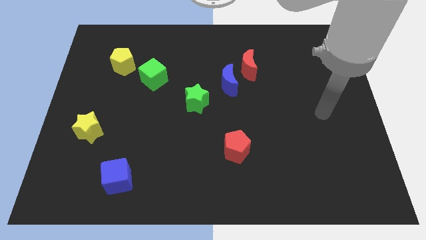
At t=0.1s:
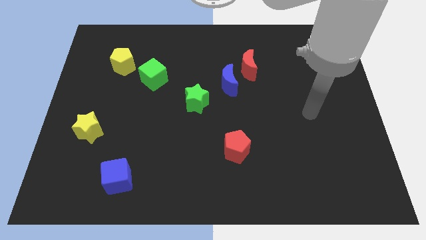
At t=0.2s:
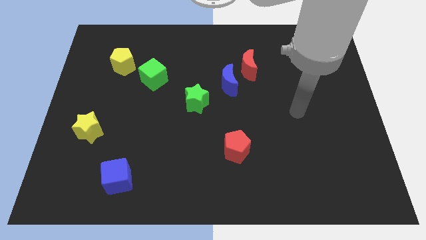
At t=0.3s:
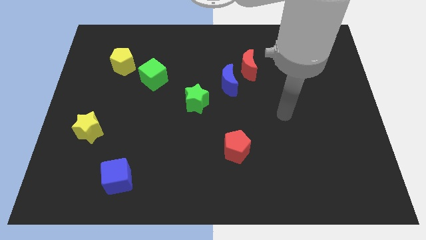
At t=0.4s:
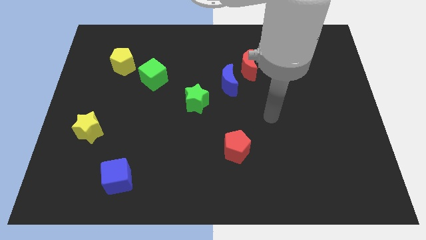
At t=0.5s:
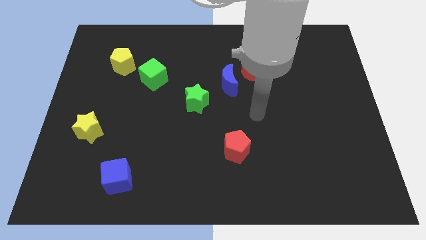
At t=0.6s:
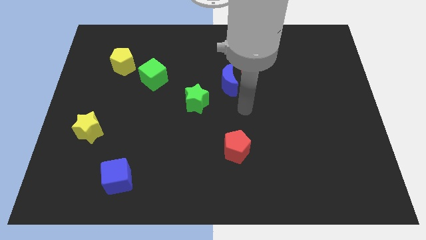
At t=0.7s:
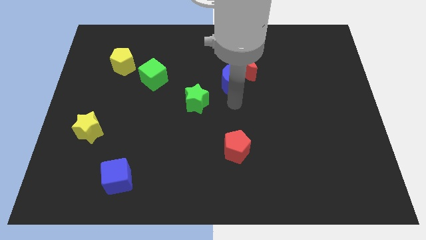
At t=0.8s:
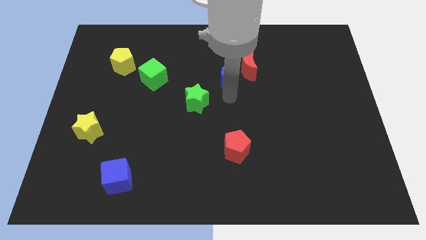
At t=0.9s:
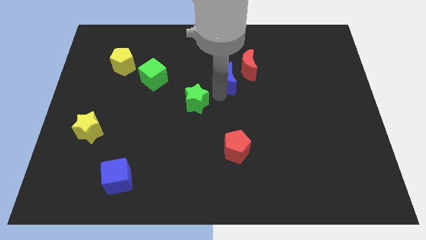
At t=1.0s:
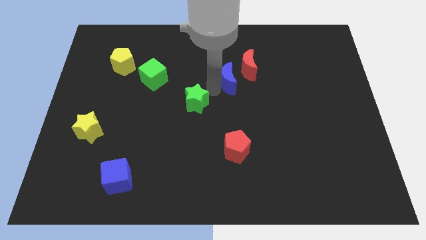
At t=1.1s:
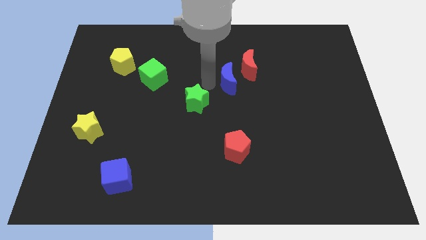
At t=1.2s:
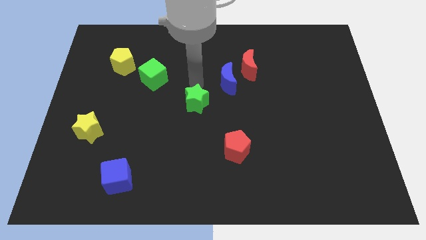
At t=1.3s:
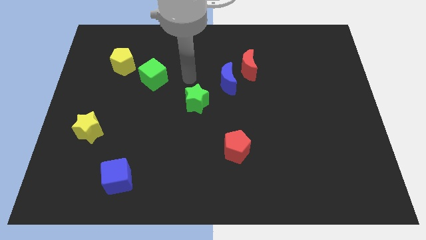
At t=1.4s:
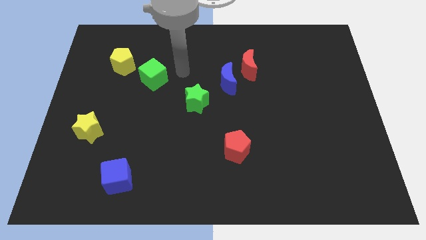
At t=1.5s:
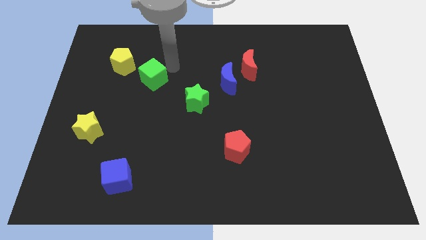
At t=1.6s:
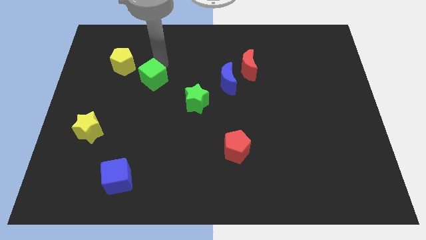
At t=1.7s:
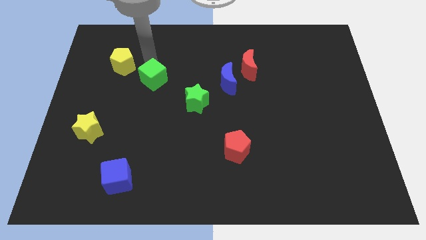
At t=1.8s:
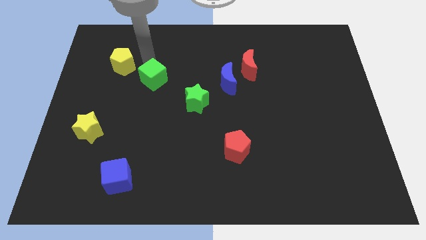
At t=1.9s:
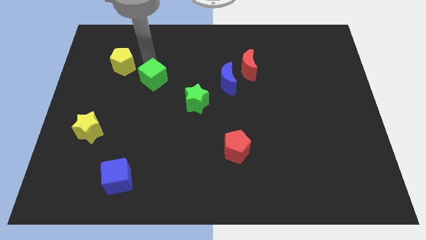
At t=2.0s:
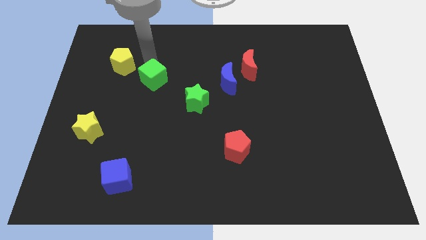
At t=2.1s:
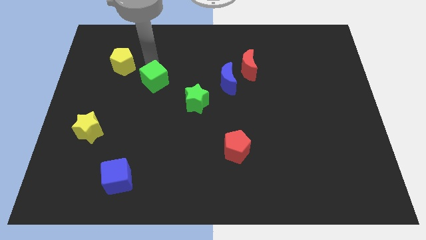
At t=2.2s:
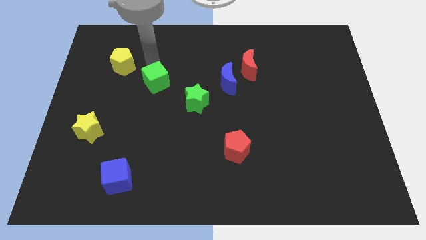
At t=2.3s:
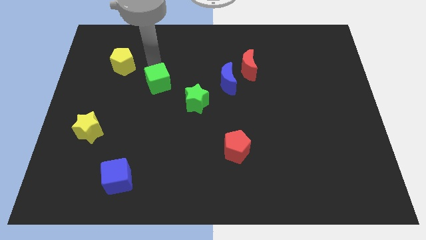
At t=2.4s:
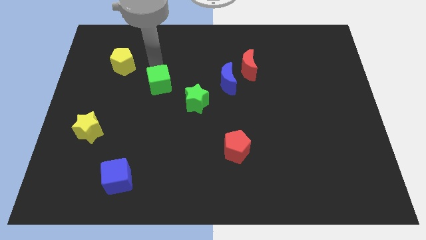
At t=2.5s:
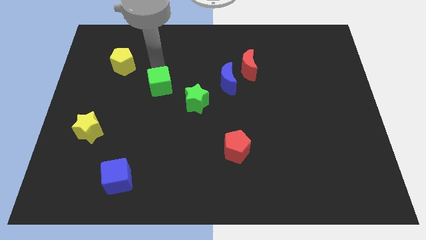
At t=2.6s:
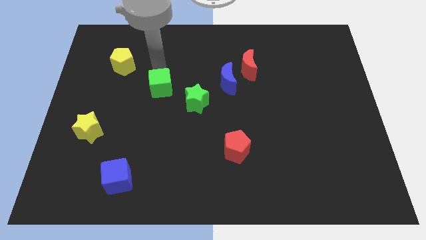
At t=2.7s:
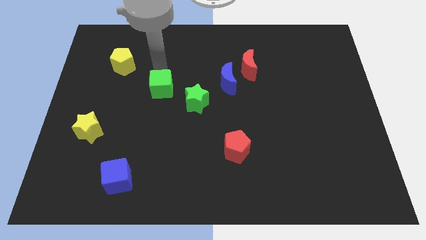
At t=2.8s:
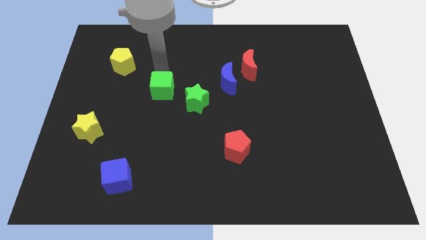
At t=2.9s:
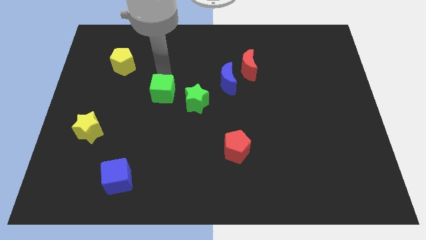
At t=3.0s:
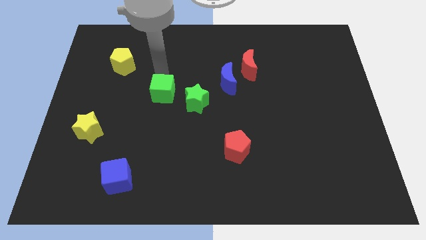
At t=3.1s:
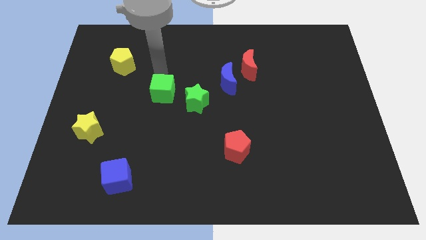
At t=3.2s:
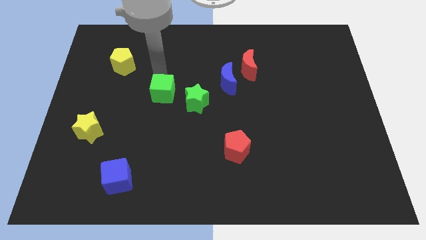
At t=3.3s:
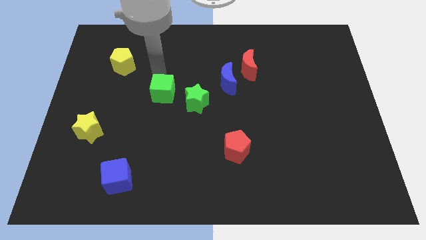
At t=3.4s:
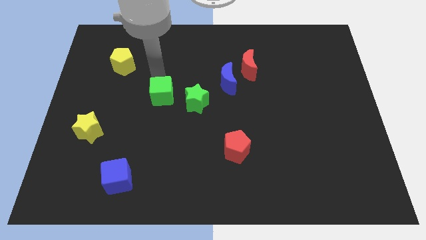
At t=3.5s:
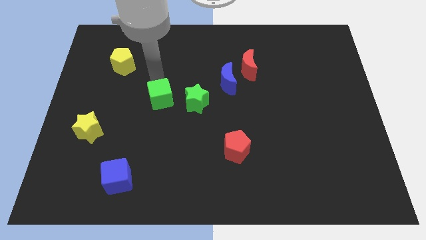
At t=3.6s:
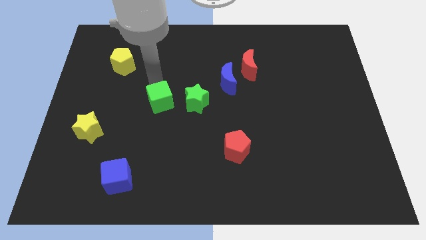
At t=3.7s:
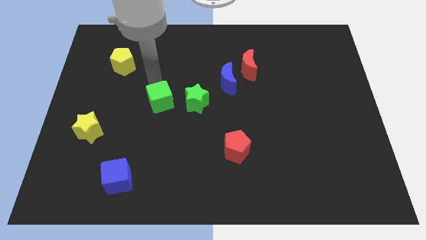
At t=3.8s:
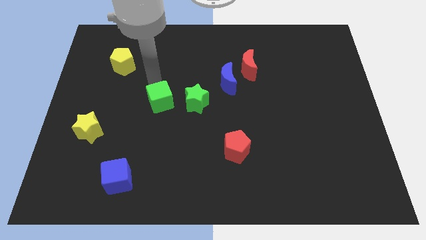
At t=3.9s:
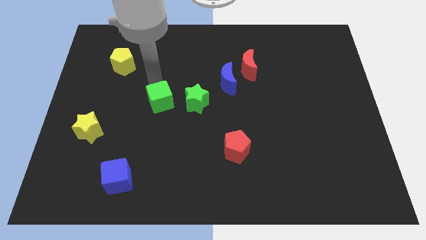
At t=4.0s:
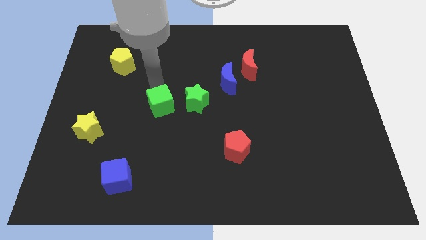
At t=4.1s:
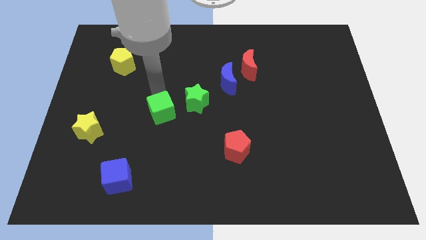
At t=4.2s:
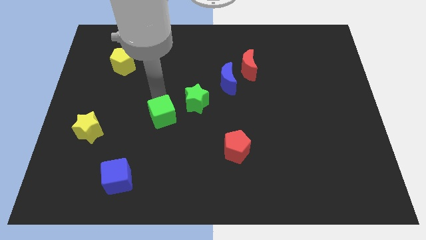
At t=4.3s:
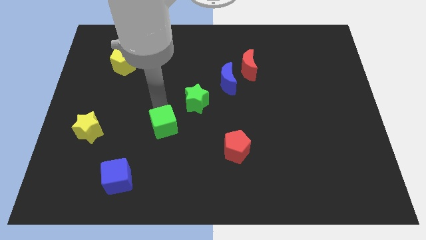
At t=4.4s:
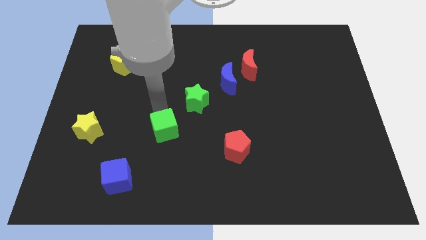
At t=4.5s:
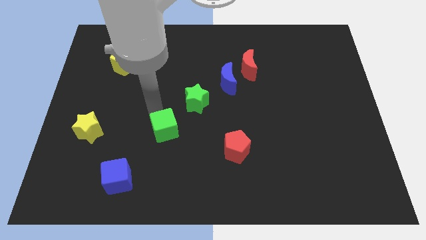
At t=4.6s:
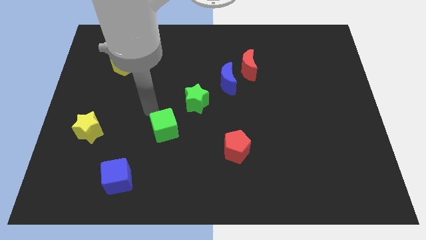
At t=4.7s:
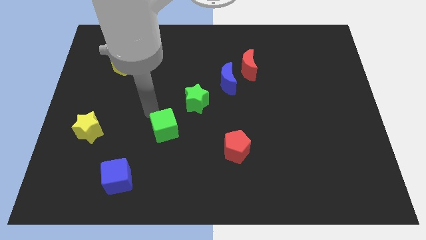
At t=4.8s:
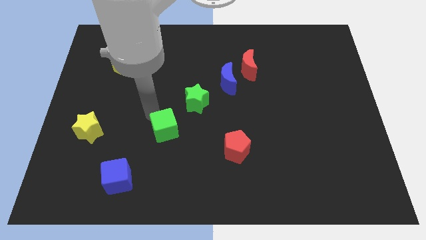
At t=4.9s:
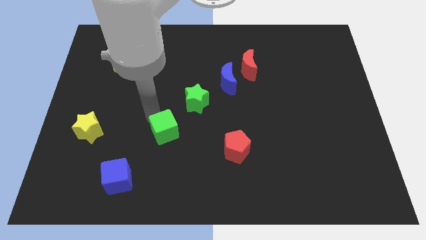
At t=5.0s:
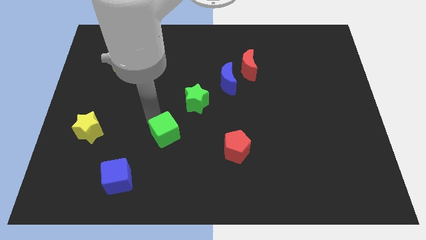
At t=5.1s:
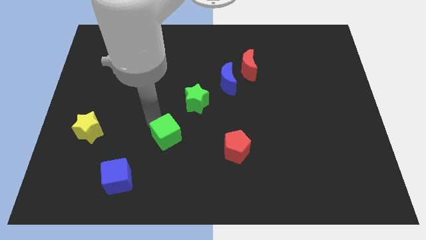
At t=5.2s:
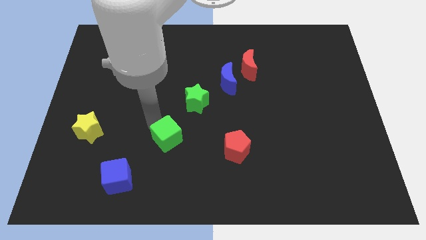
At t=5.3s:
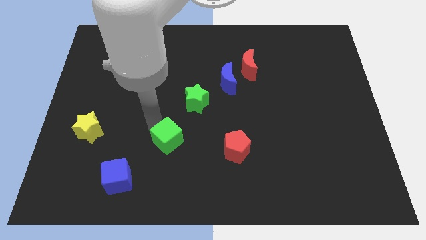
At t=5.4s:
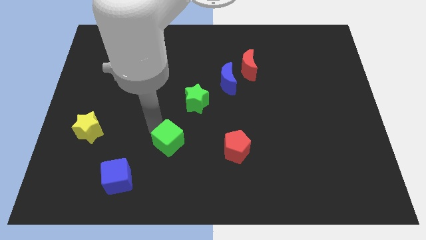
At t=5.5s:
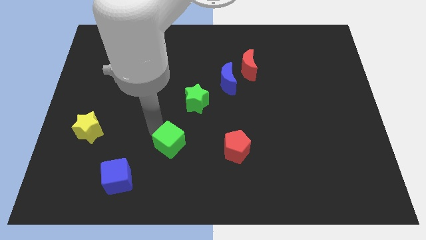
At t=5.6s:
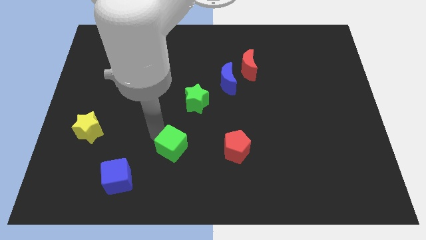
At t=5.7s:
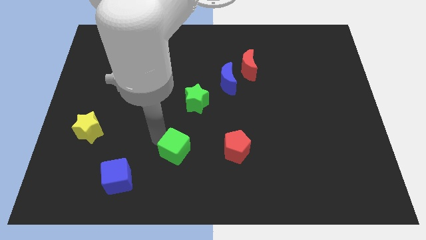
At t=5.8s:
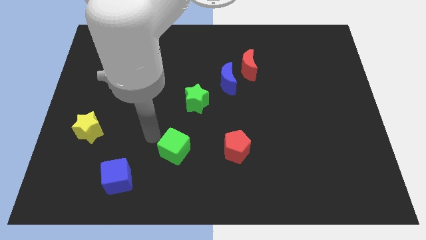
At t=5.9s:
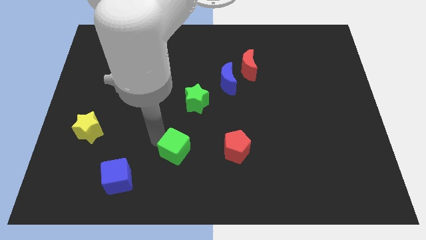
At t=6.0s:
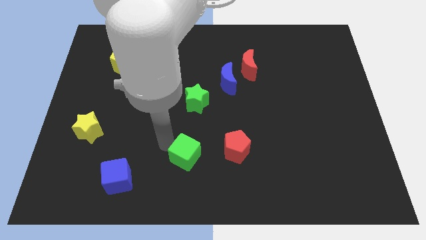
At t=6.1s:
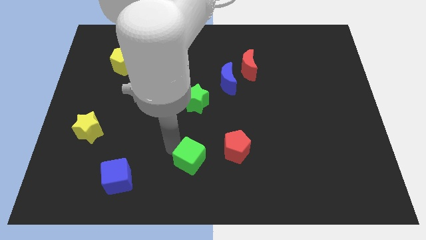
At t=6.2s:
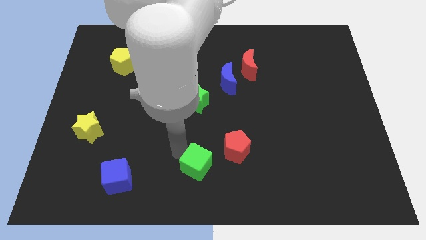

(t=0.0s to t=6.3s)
put the green cube to the bottom left side of the red pentagon

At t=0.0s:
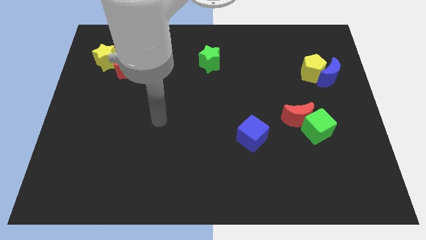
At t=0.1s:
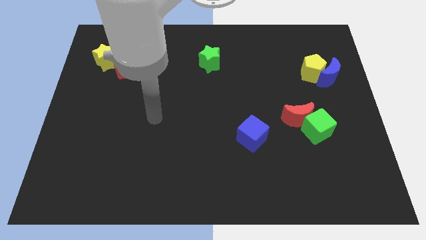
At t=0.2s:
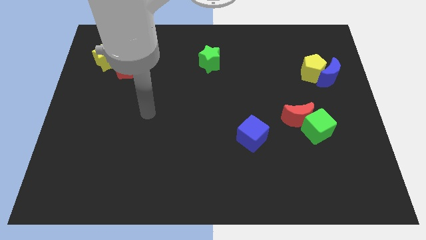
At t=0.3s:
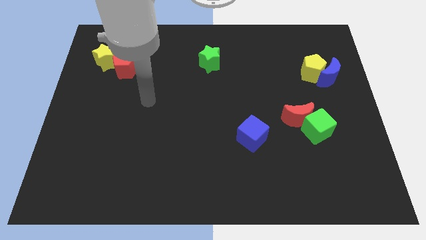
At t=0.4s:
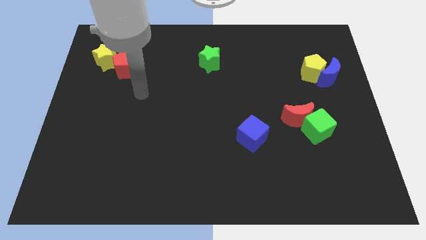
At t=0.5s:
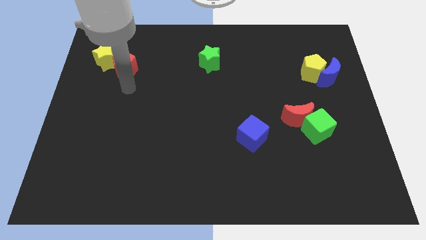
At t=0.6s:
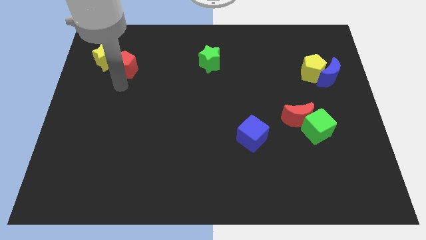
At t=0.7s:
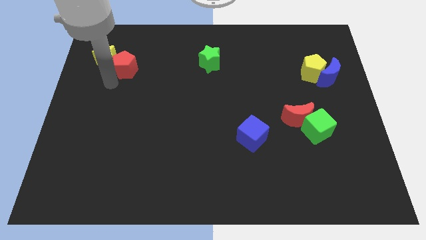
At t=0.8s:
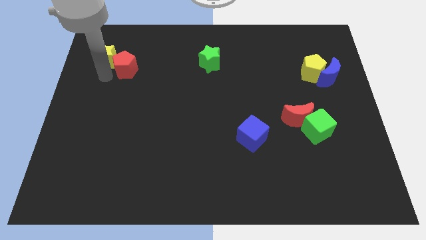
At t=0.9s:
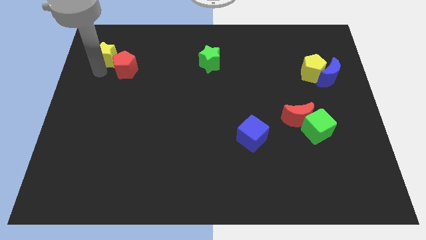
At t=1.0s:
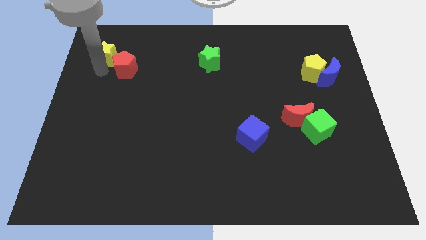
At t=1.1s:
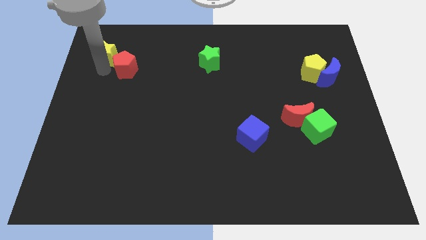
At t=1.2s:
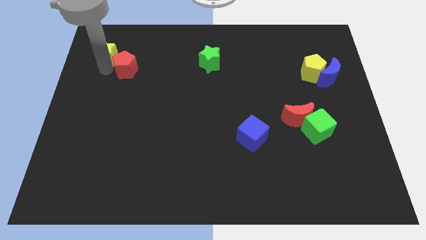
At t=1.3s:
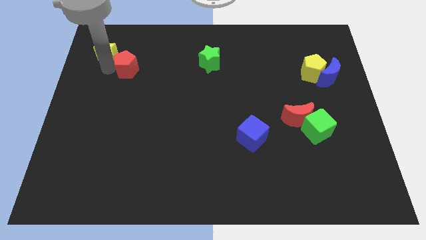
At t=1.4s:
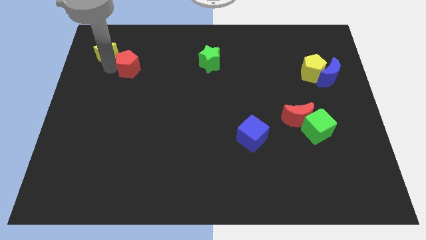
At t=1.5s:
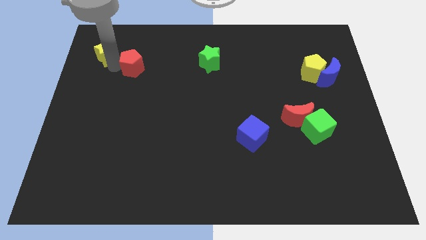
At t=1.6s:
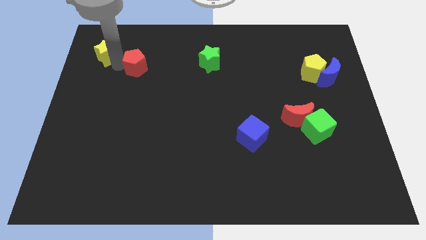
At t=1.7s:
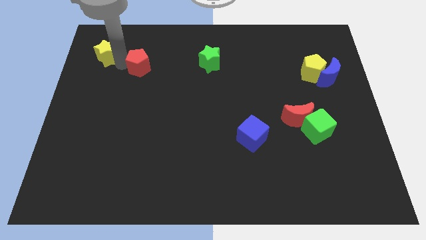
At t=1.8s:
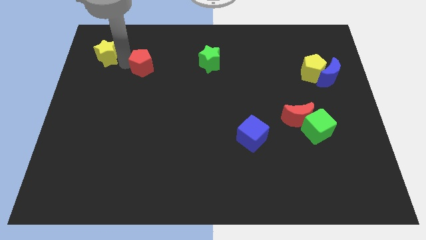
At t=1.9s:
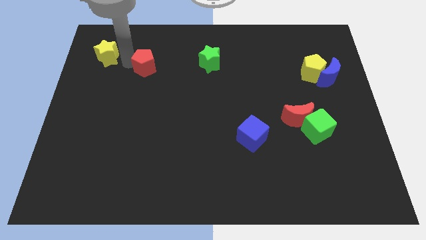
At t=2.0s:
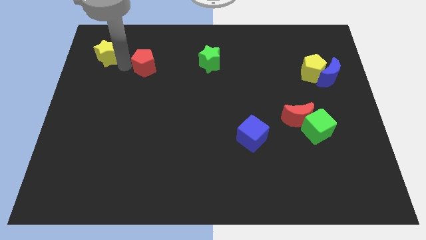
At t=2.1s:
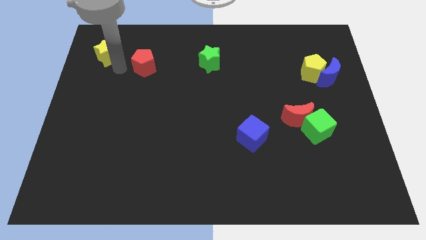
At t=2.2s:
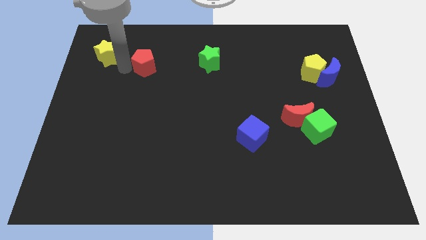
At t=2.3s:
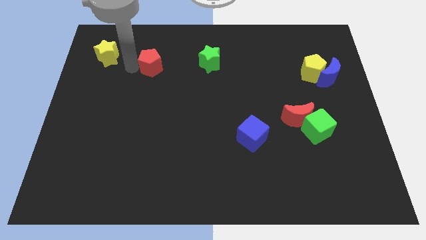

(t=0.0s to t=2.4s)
slide the red pentagon to the left of the green star
